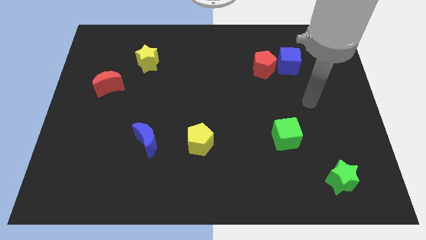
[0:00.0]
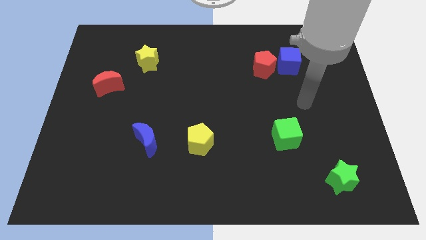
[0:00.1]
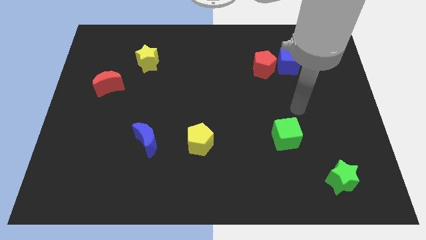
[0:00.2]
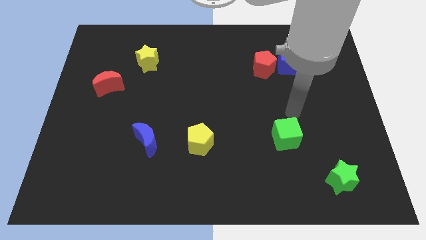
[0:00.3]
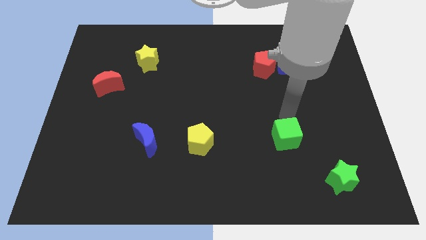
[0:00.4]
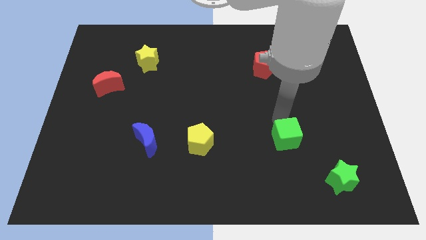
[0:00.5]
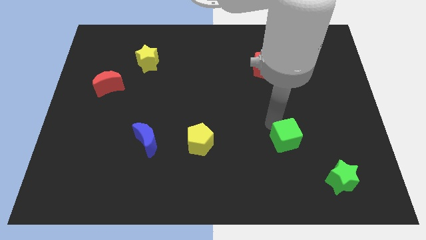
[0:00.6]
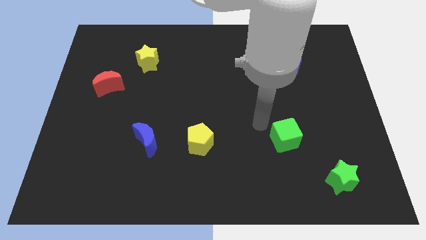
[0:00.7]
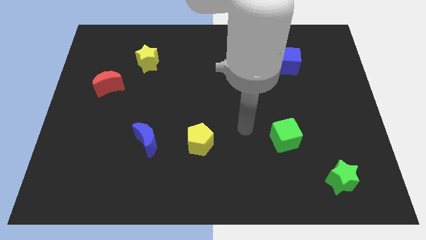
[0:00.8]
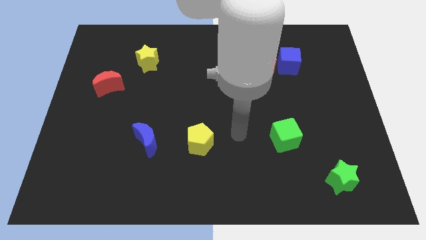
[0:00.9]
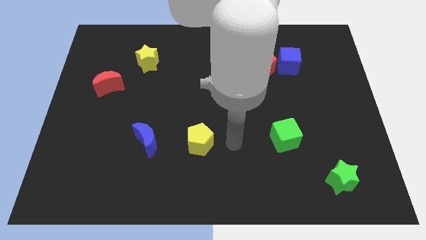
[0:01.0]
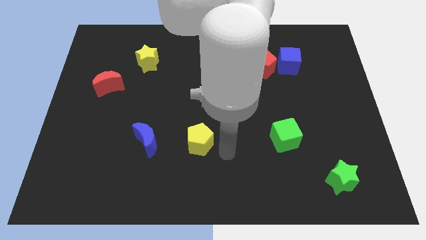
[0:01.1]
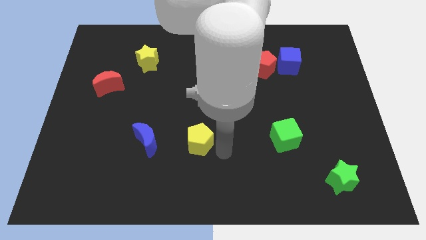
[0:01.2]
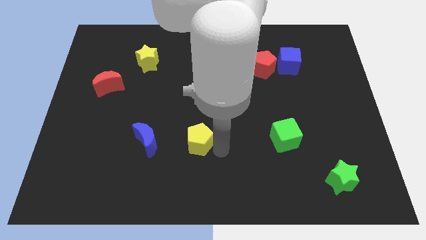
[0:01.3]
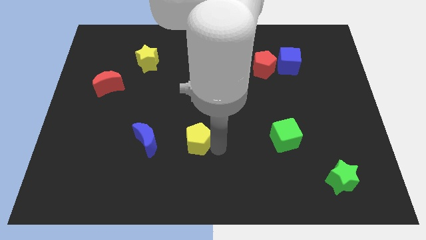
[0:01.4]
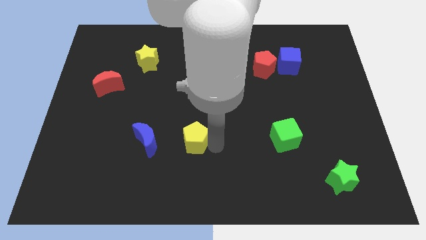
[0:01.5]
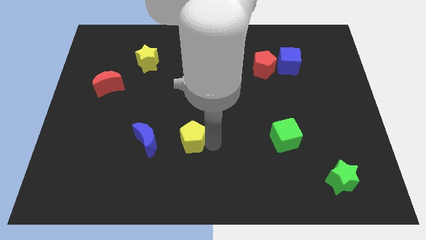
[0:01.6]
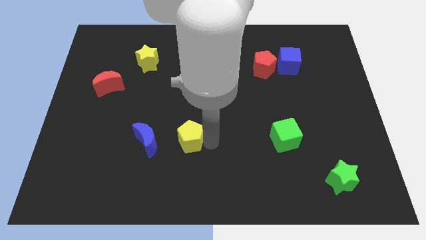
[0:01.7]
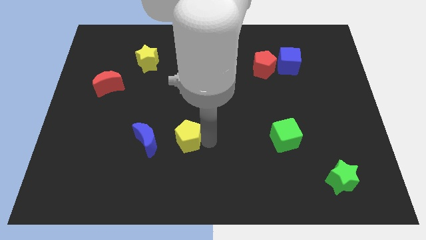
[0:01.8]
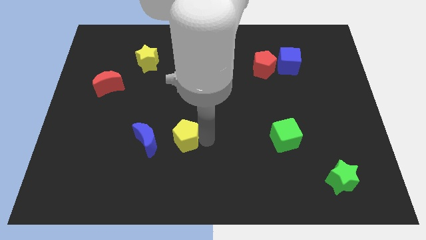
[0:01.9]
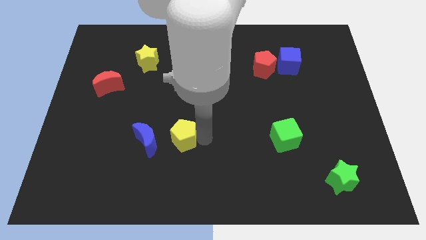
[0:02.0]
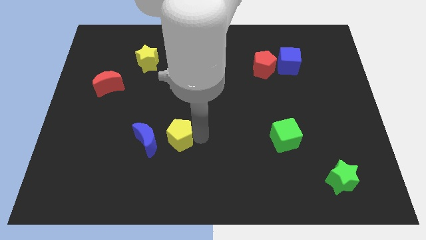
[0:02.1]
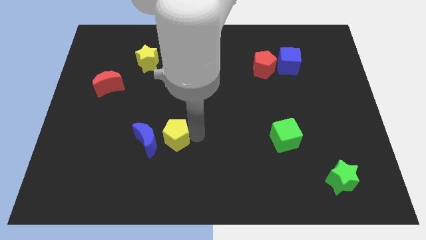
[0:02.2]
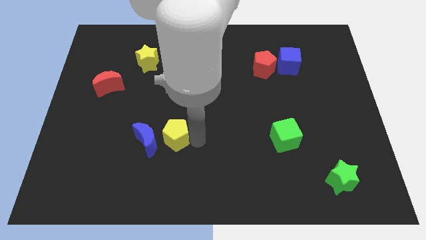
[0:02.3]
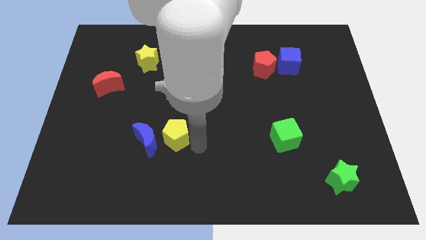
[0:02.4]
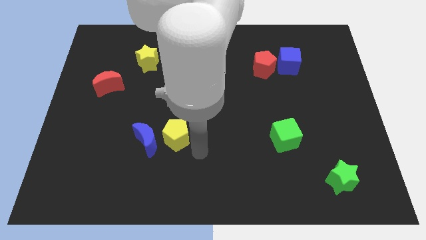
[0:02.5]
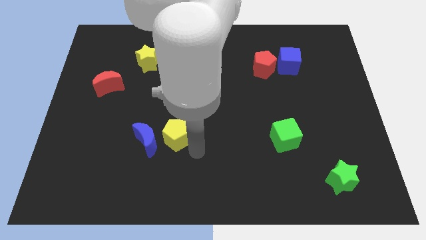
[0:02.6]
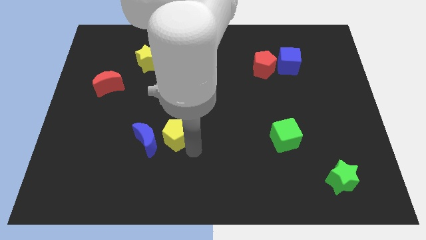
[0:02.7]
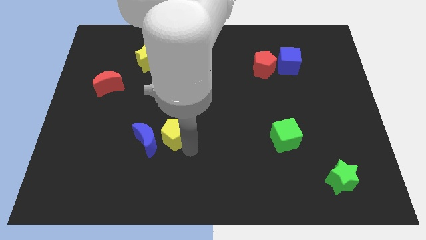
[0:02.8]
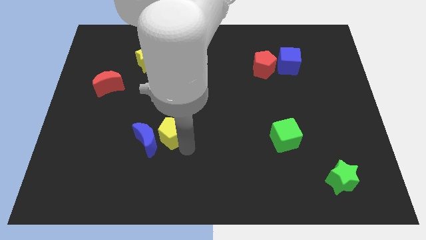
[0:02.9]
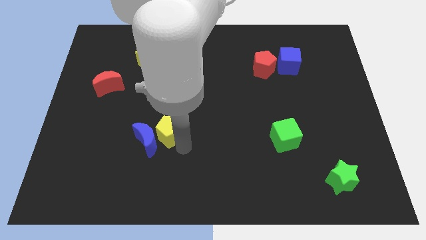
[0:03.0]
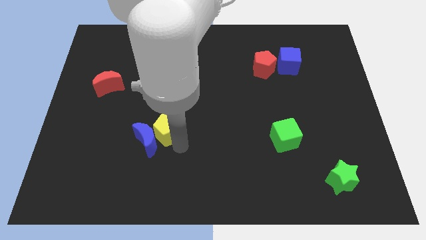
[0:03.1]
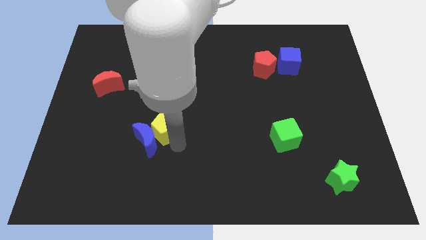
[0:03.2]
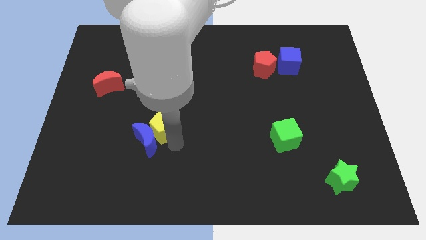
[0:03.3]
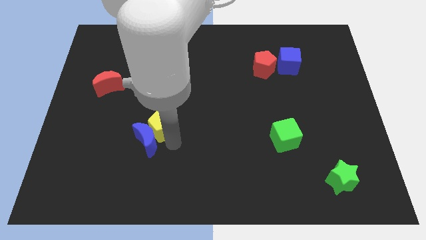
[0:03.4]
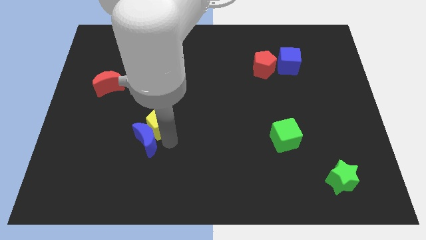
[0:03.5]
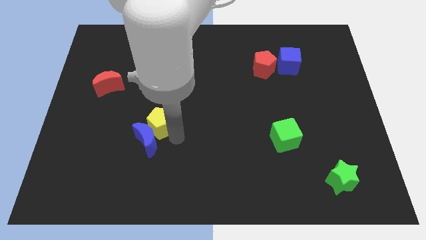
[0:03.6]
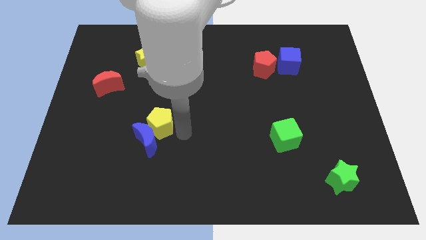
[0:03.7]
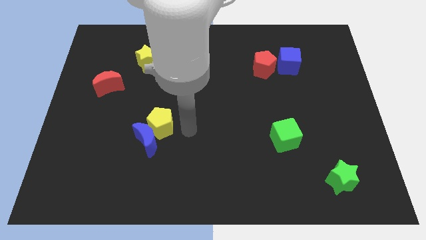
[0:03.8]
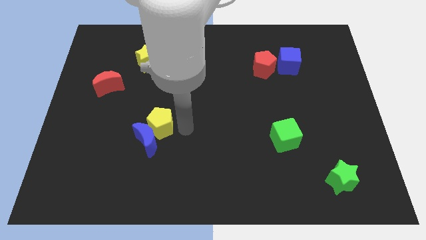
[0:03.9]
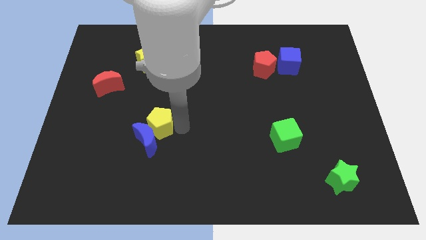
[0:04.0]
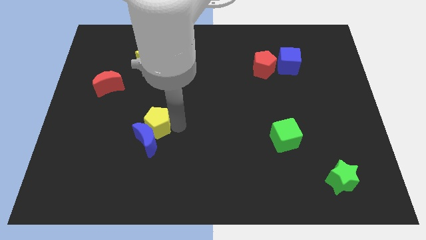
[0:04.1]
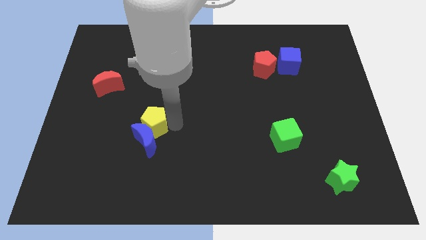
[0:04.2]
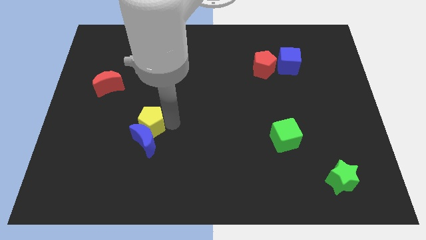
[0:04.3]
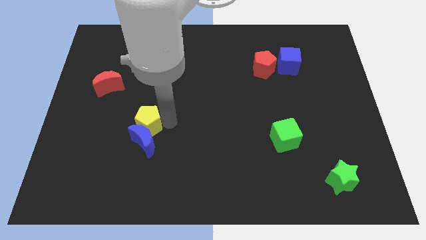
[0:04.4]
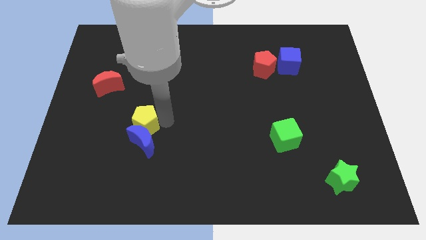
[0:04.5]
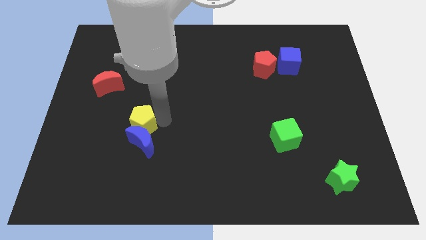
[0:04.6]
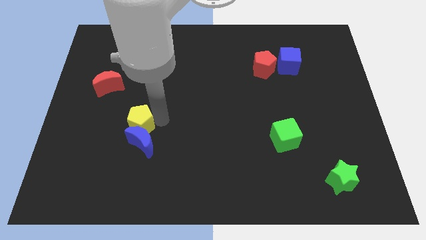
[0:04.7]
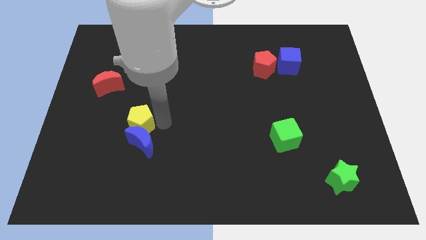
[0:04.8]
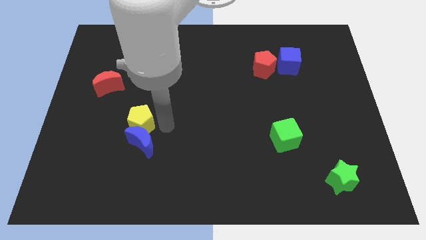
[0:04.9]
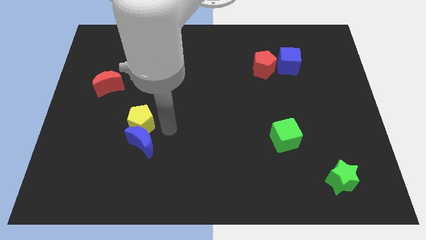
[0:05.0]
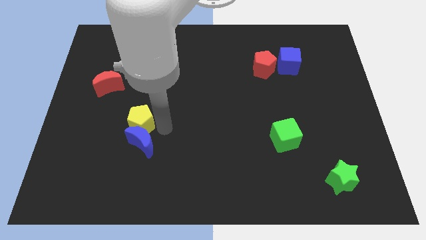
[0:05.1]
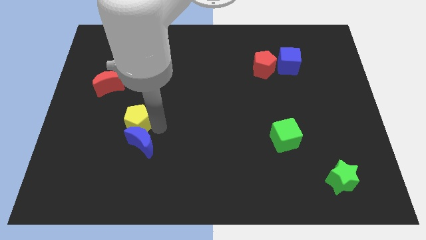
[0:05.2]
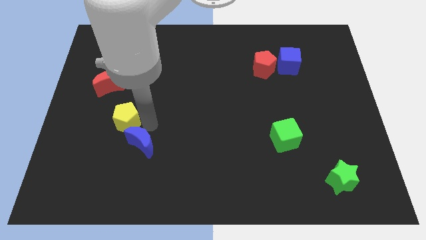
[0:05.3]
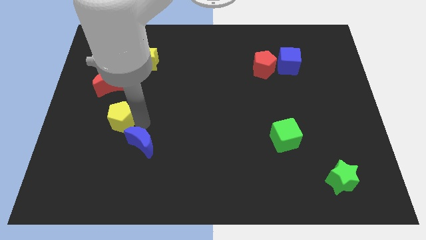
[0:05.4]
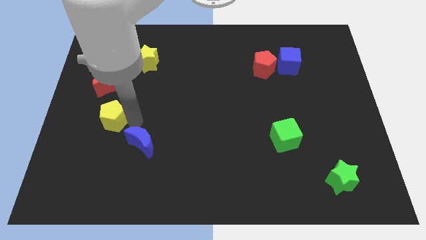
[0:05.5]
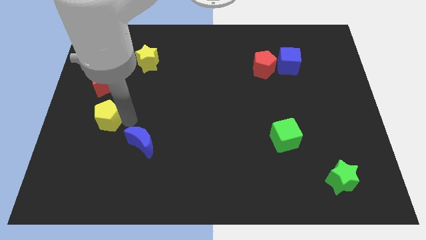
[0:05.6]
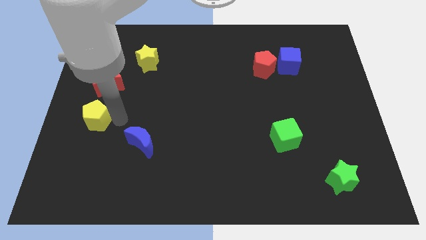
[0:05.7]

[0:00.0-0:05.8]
put the yellow pentagon to the left side

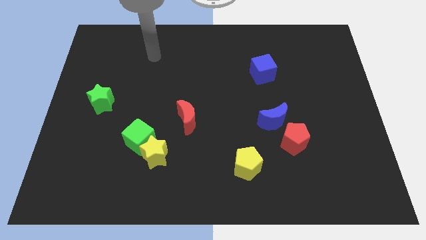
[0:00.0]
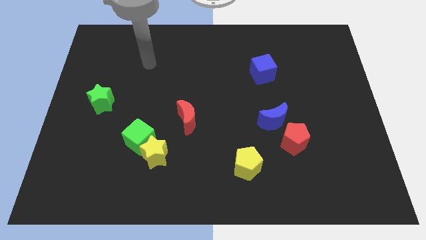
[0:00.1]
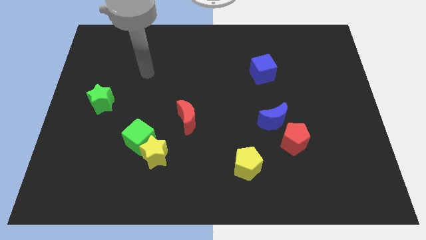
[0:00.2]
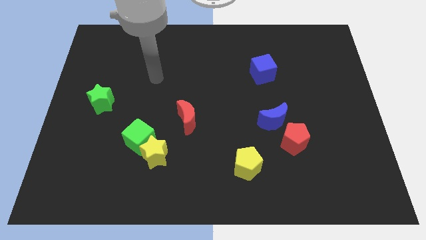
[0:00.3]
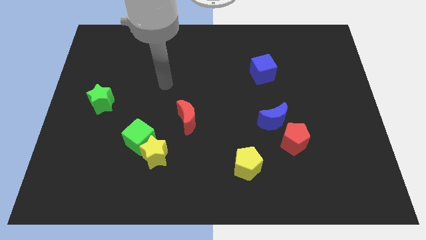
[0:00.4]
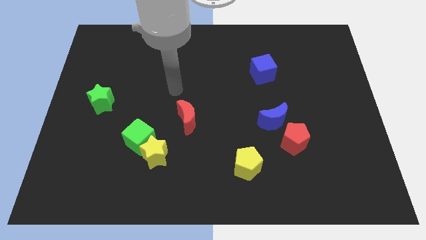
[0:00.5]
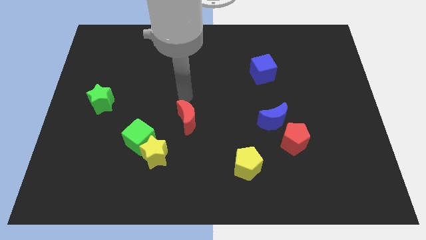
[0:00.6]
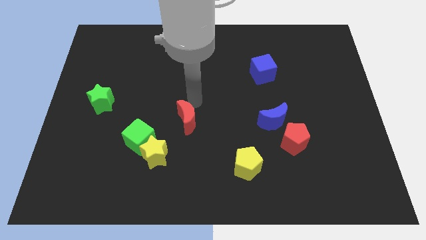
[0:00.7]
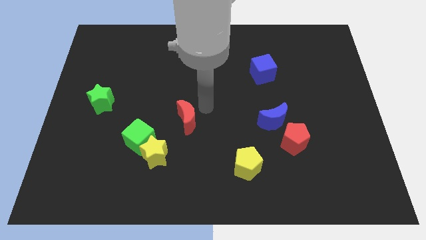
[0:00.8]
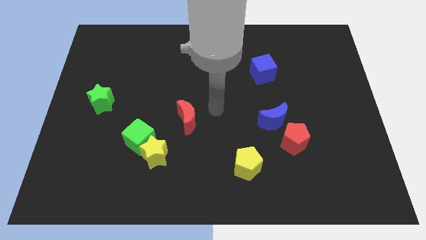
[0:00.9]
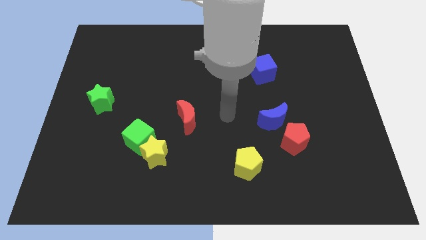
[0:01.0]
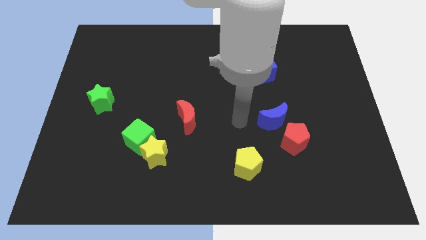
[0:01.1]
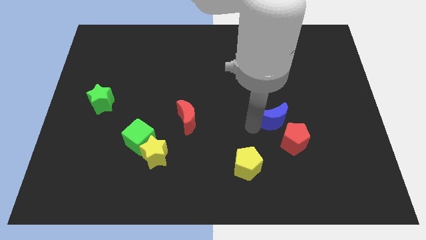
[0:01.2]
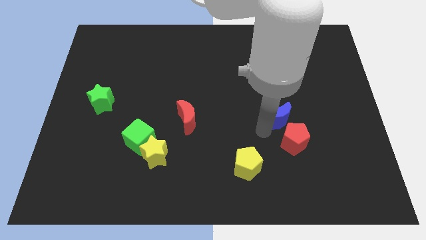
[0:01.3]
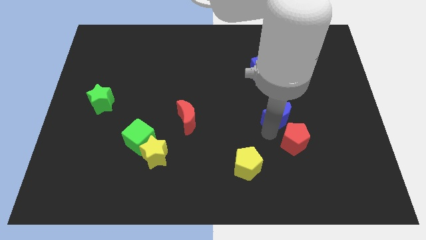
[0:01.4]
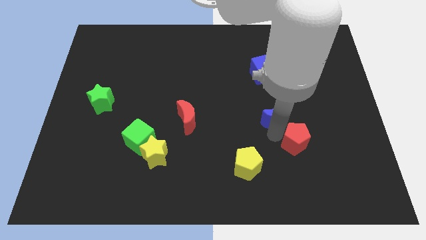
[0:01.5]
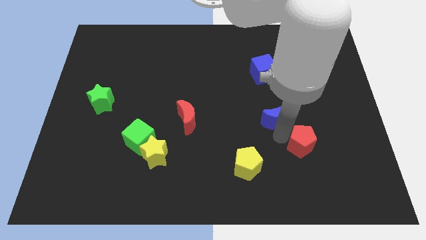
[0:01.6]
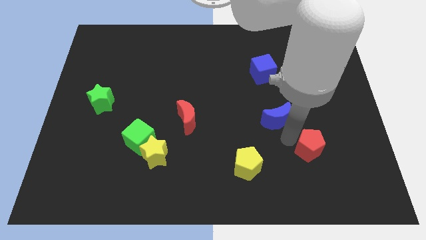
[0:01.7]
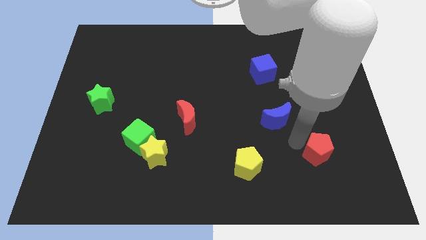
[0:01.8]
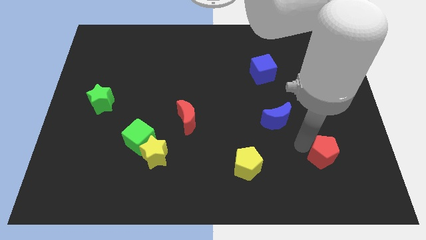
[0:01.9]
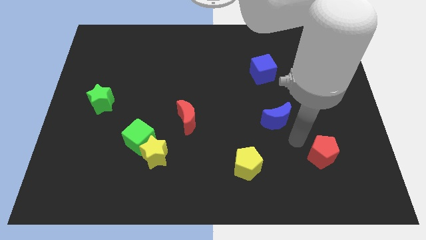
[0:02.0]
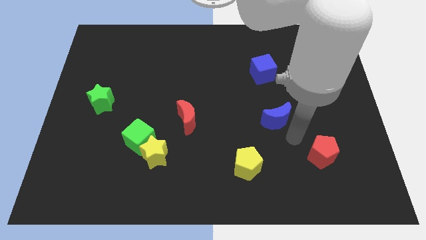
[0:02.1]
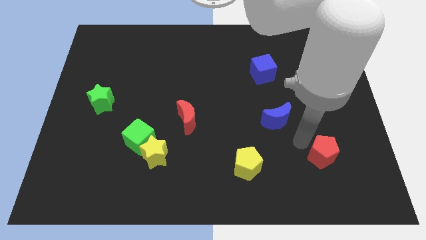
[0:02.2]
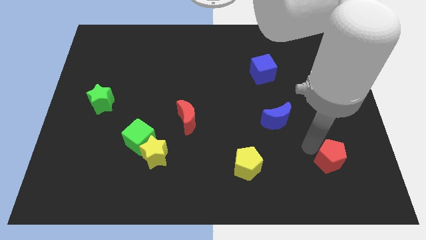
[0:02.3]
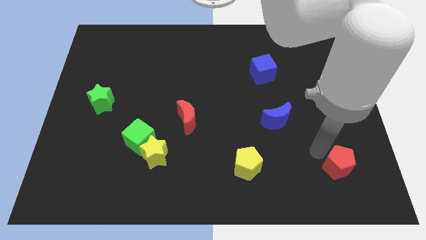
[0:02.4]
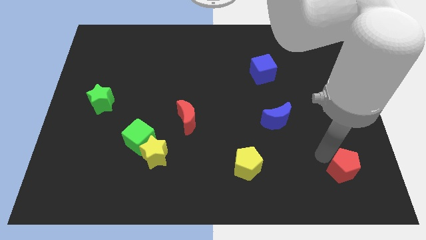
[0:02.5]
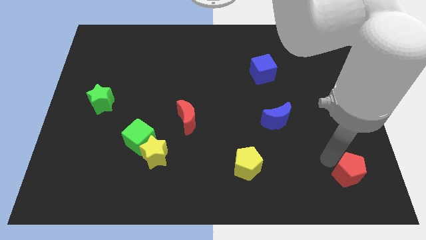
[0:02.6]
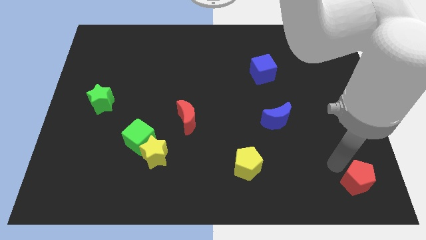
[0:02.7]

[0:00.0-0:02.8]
move the red pentagon to the bottom right corner
